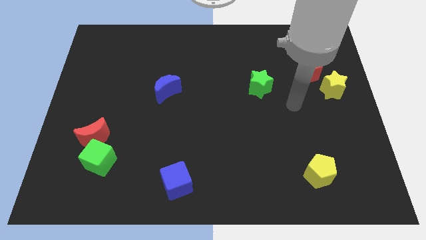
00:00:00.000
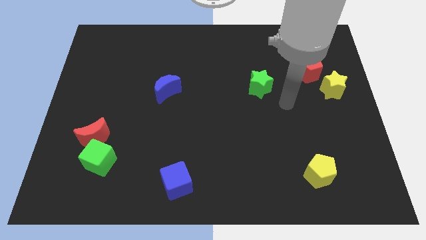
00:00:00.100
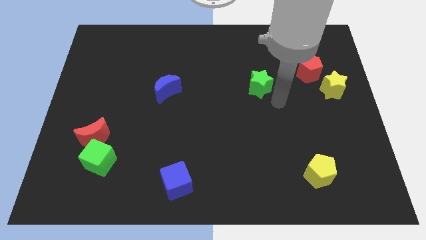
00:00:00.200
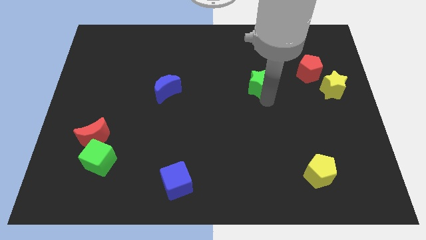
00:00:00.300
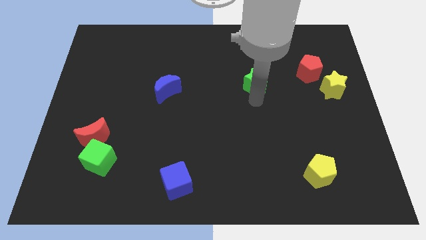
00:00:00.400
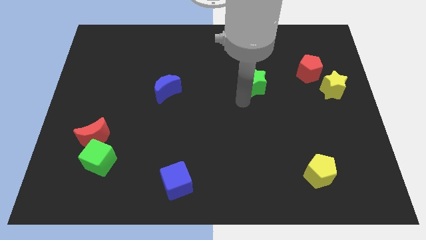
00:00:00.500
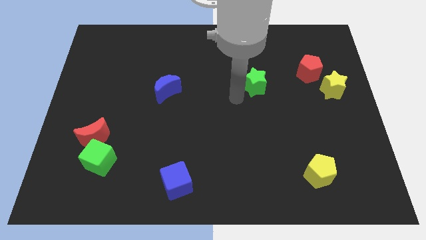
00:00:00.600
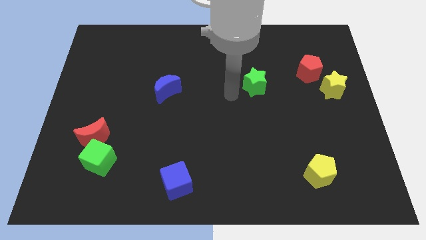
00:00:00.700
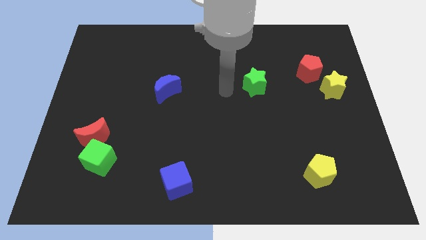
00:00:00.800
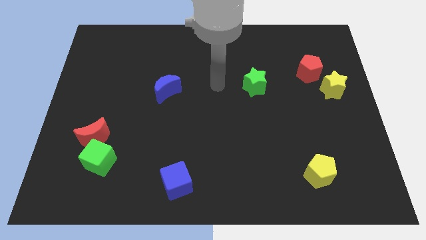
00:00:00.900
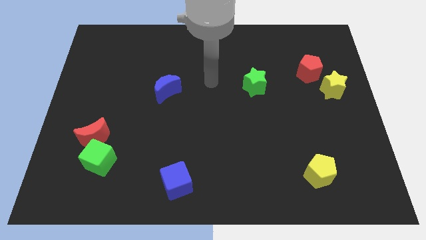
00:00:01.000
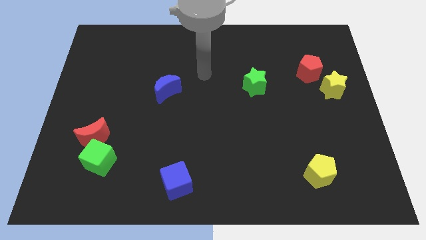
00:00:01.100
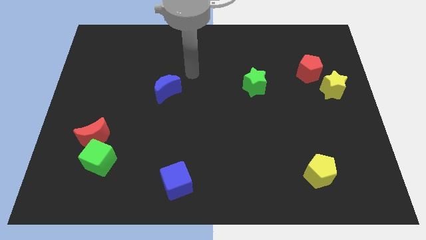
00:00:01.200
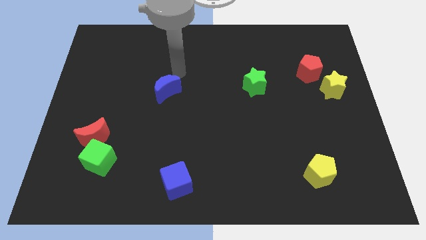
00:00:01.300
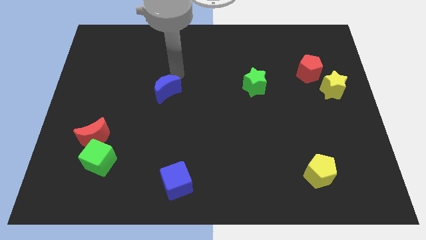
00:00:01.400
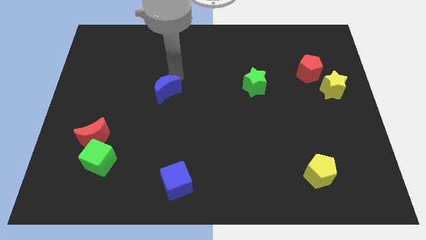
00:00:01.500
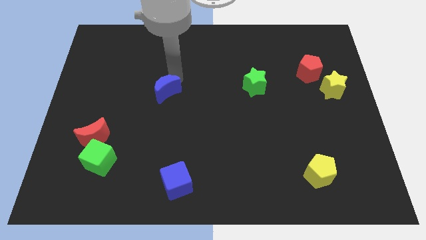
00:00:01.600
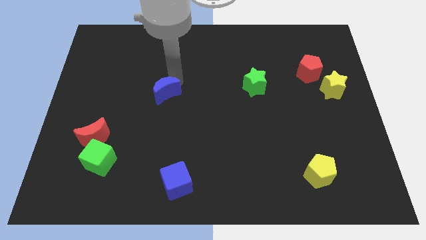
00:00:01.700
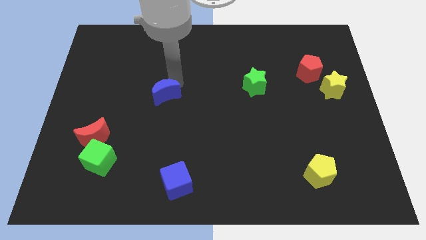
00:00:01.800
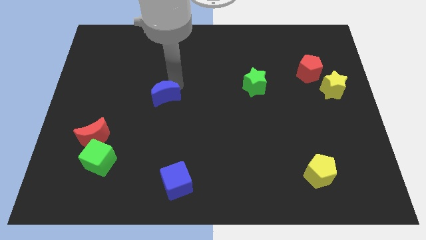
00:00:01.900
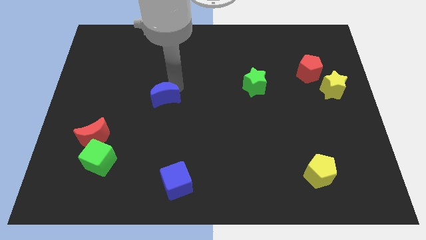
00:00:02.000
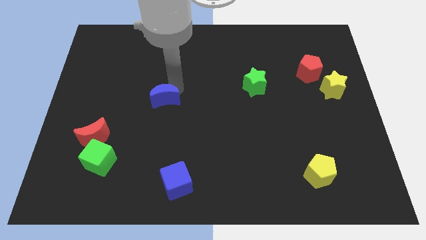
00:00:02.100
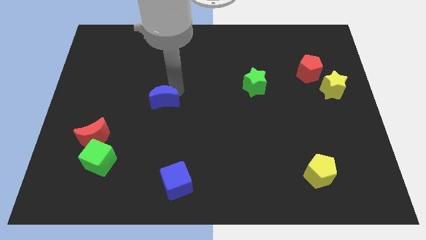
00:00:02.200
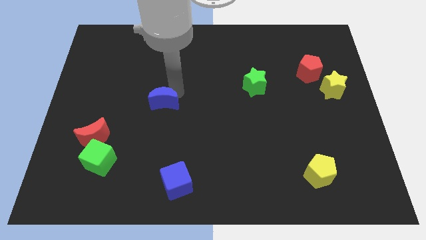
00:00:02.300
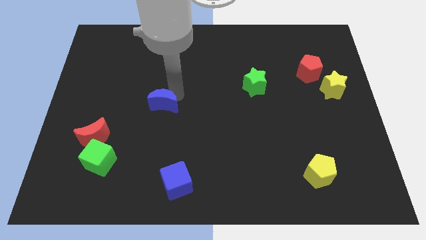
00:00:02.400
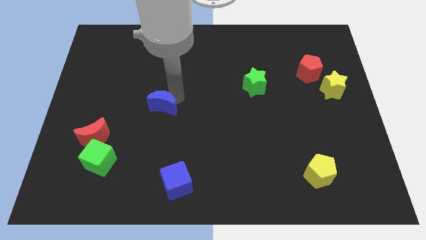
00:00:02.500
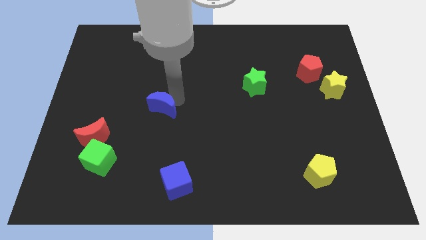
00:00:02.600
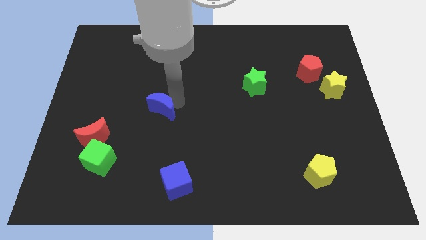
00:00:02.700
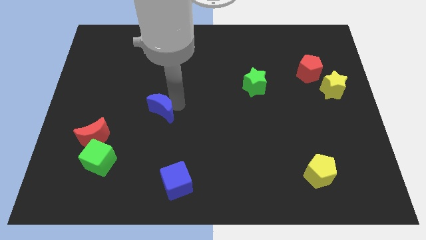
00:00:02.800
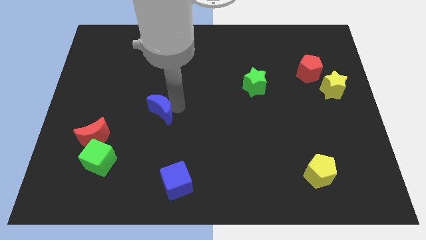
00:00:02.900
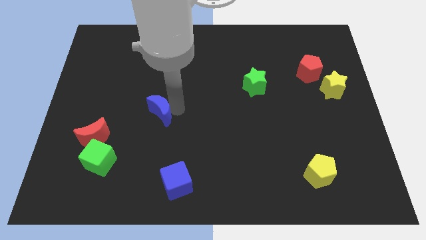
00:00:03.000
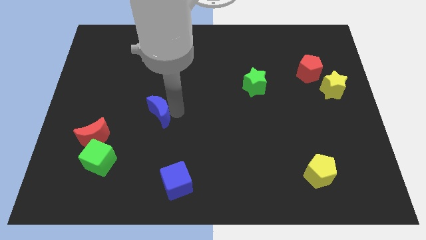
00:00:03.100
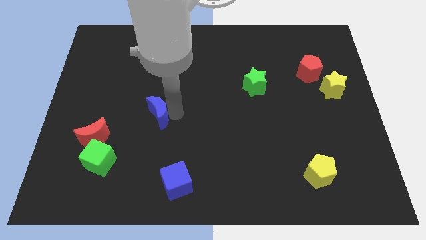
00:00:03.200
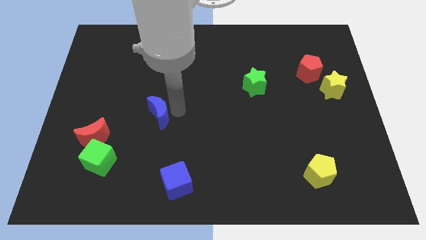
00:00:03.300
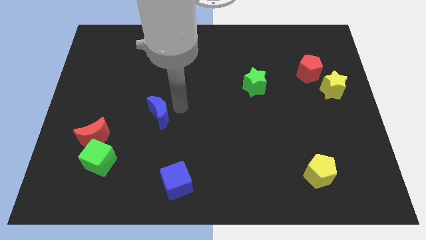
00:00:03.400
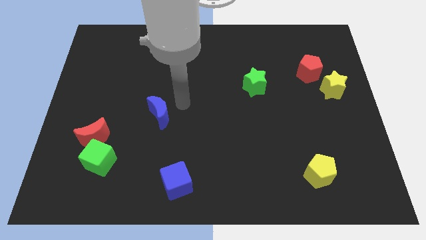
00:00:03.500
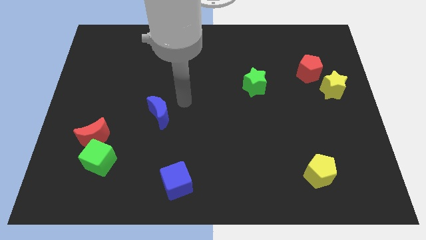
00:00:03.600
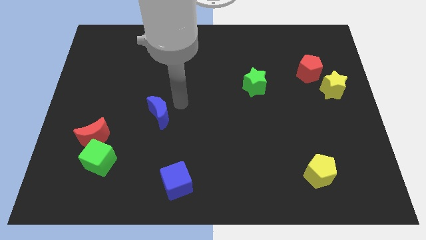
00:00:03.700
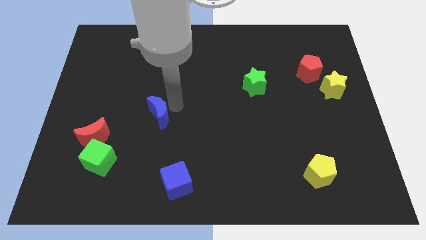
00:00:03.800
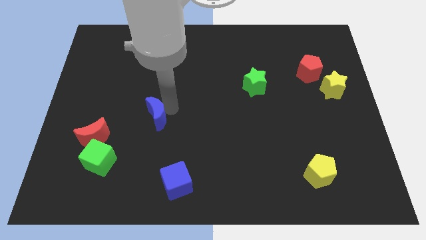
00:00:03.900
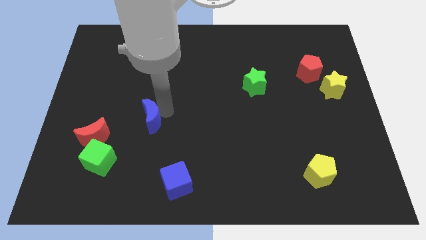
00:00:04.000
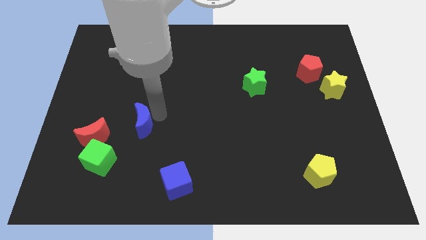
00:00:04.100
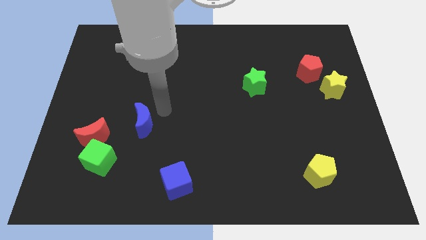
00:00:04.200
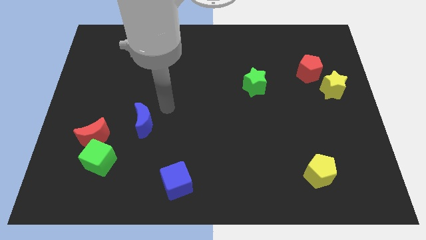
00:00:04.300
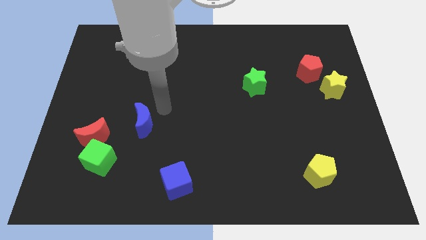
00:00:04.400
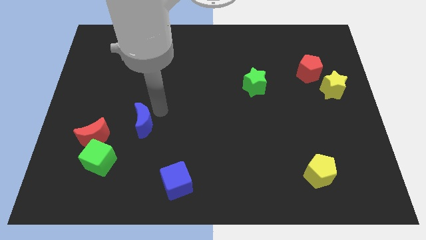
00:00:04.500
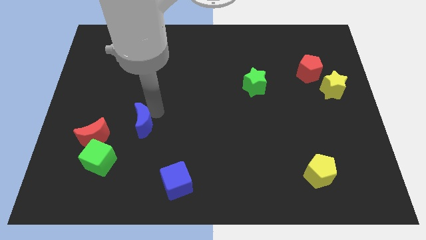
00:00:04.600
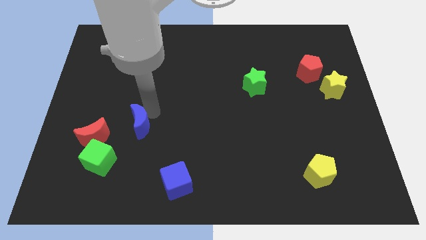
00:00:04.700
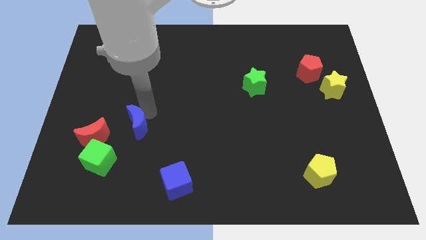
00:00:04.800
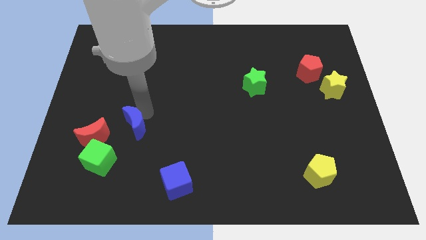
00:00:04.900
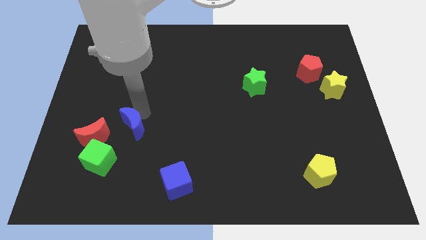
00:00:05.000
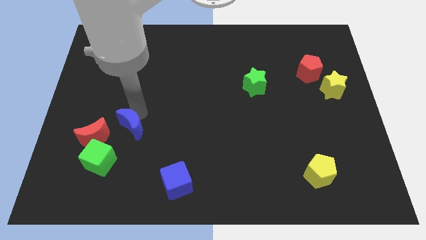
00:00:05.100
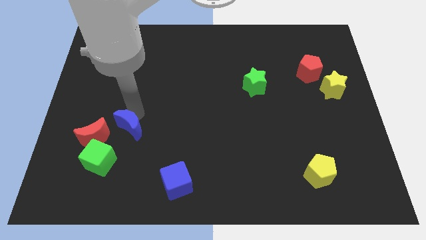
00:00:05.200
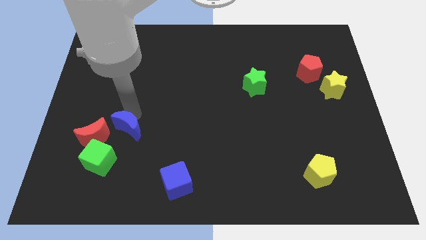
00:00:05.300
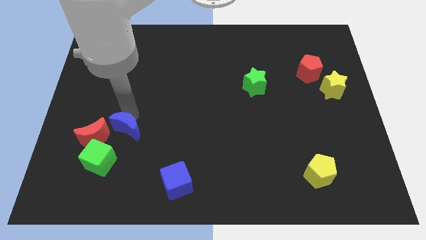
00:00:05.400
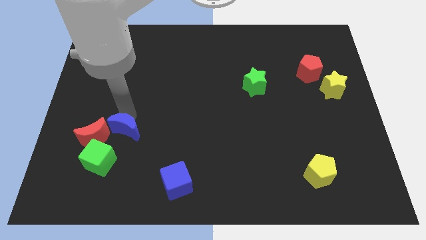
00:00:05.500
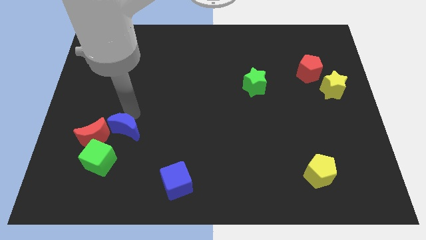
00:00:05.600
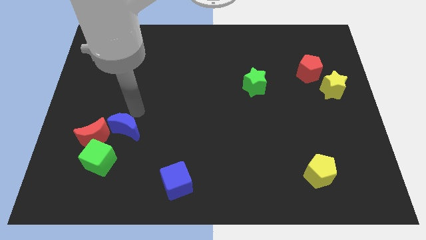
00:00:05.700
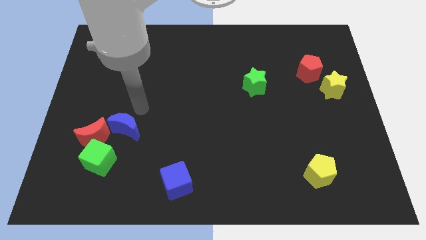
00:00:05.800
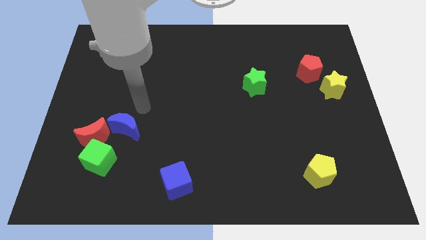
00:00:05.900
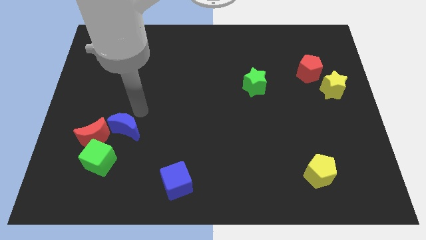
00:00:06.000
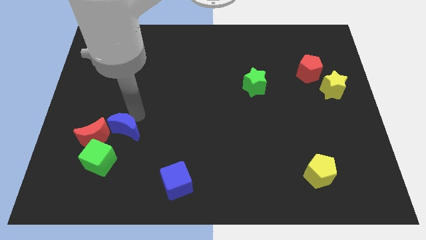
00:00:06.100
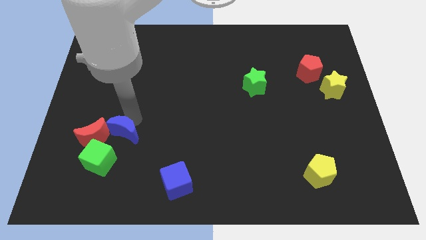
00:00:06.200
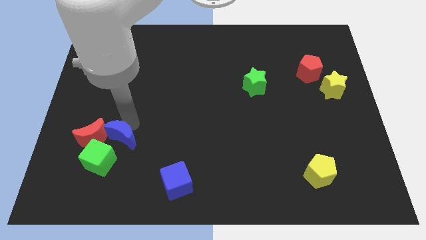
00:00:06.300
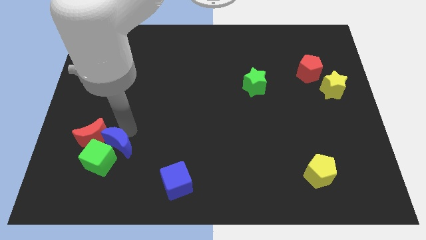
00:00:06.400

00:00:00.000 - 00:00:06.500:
put the blue moon next to the green cube

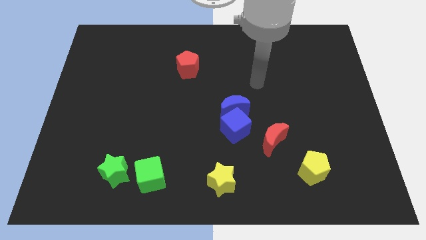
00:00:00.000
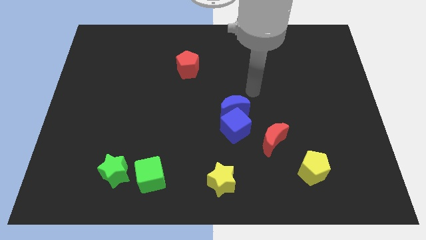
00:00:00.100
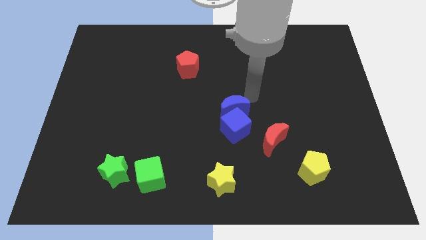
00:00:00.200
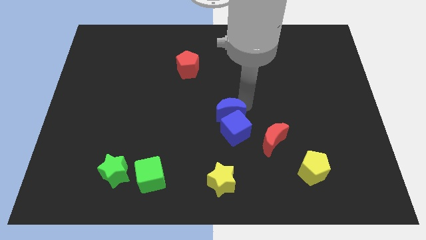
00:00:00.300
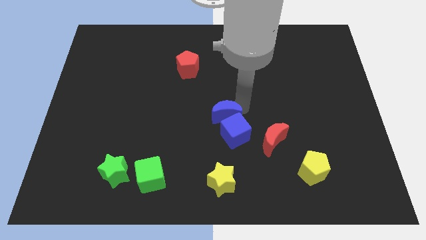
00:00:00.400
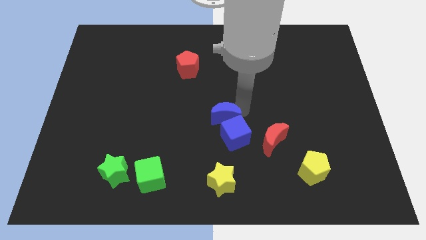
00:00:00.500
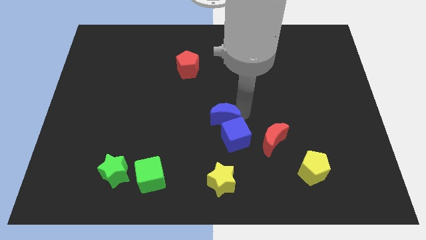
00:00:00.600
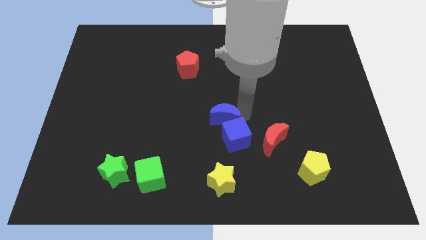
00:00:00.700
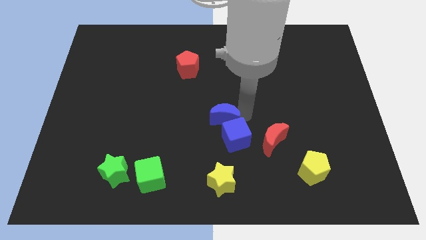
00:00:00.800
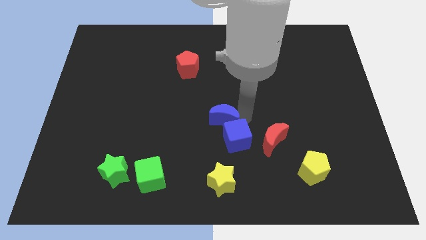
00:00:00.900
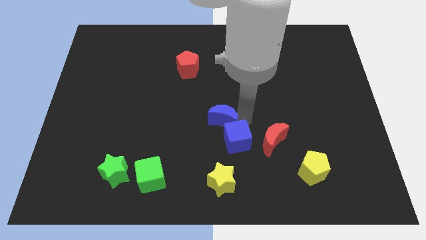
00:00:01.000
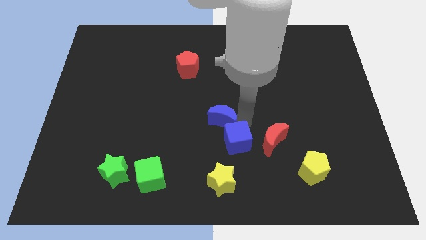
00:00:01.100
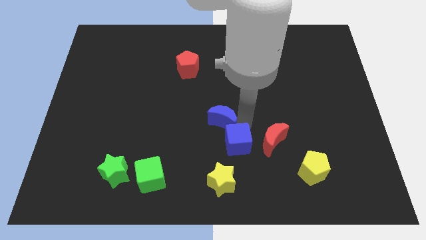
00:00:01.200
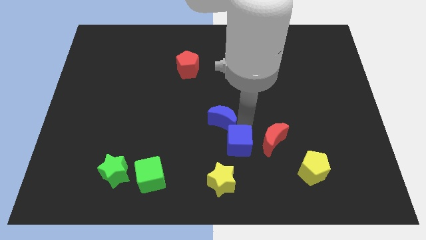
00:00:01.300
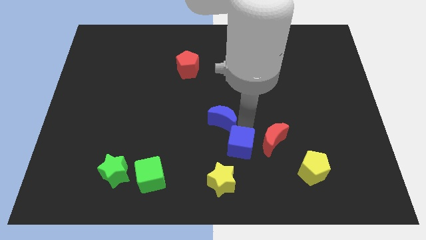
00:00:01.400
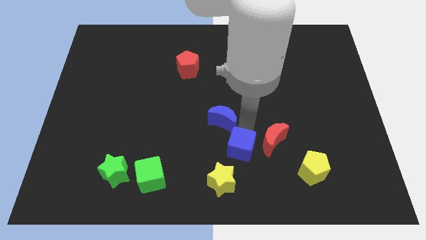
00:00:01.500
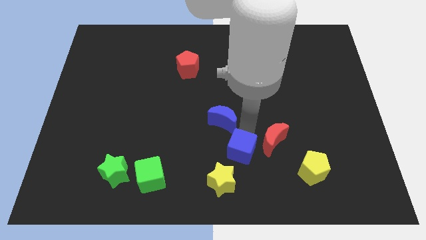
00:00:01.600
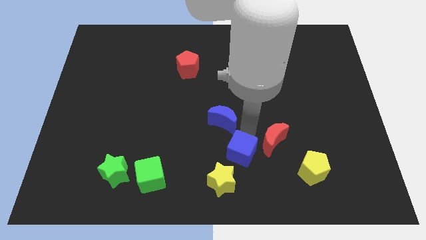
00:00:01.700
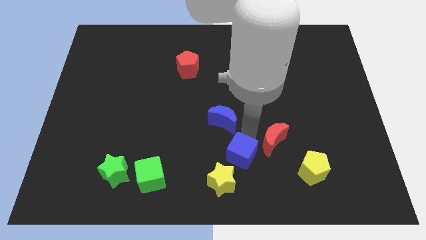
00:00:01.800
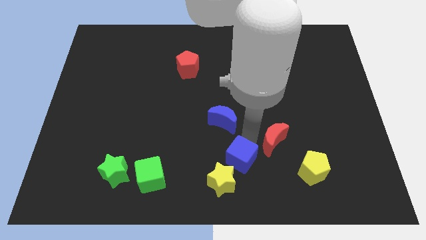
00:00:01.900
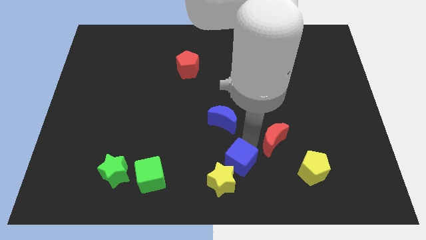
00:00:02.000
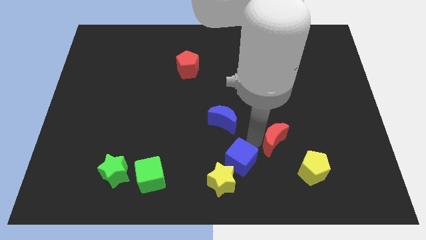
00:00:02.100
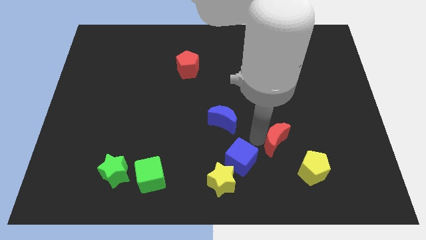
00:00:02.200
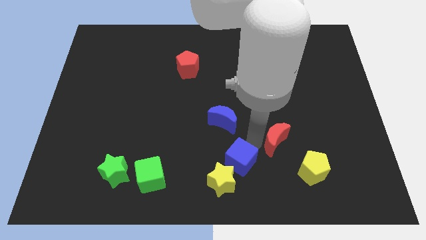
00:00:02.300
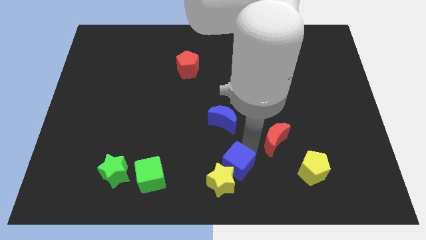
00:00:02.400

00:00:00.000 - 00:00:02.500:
slide the blue cube towards the yellow star
